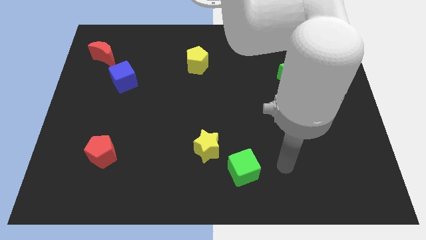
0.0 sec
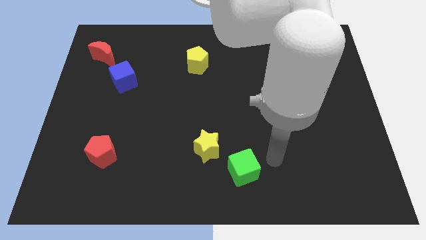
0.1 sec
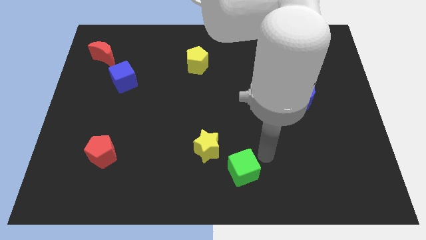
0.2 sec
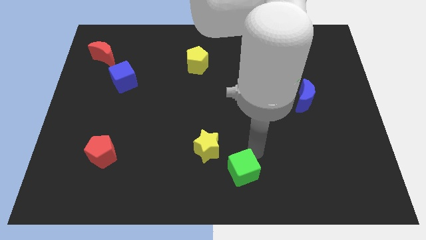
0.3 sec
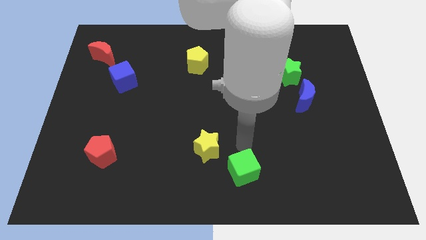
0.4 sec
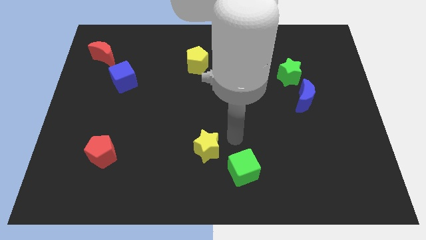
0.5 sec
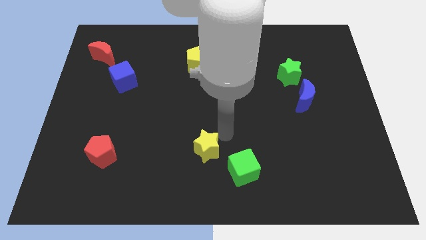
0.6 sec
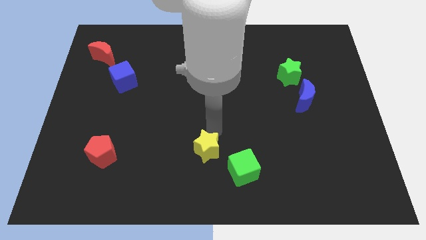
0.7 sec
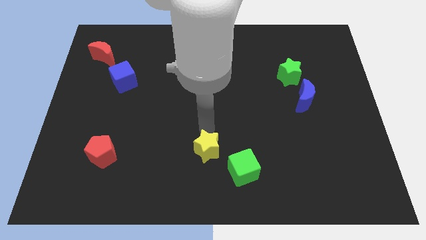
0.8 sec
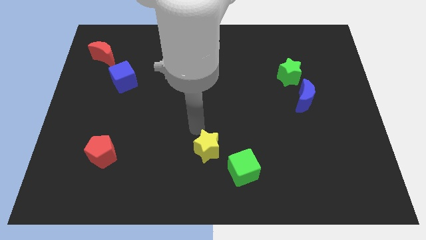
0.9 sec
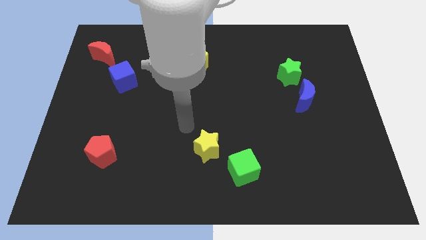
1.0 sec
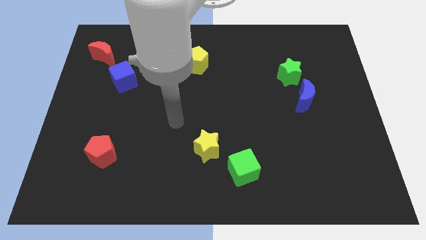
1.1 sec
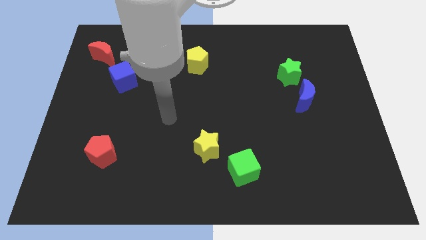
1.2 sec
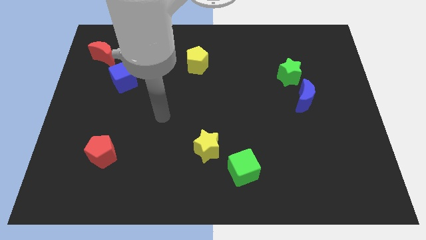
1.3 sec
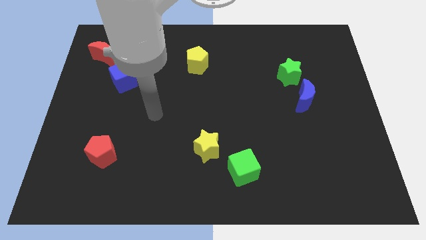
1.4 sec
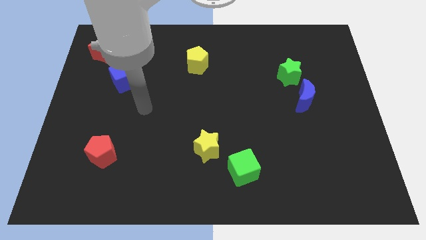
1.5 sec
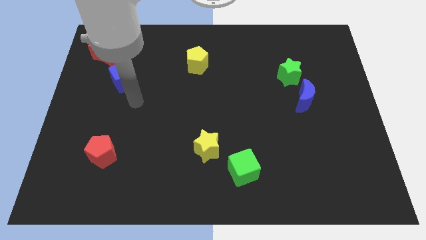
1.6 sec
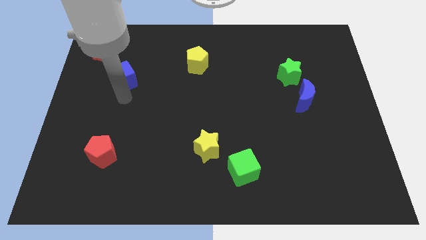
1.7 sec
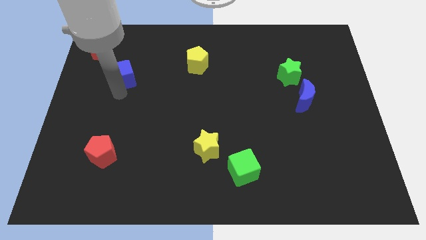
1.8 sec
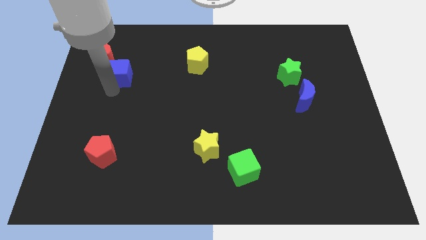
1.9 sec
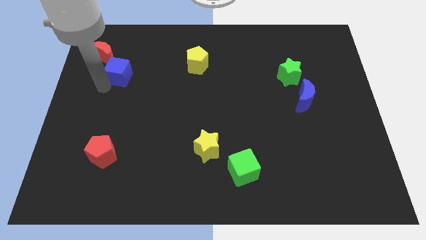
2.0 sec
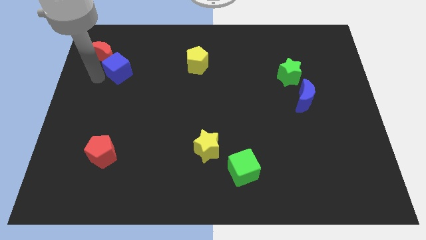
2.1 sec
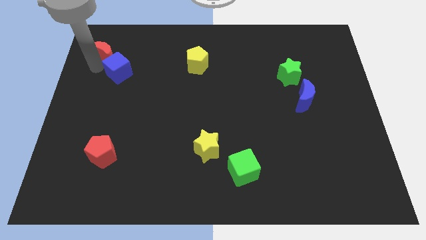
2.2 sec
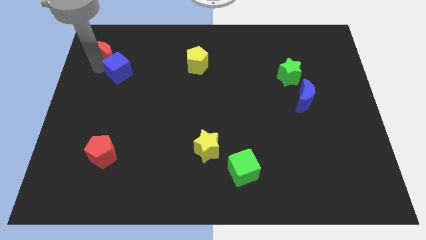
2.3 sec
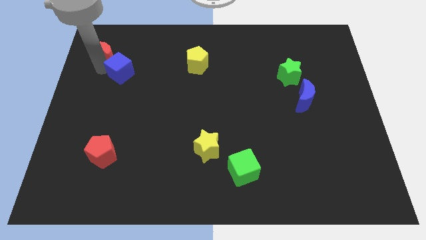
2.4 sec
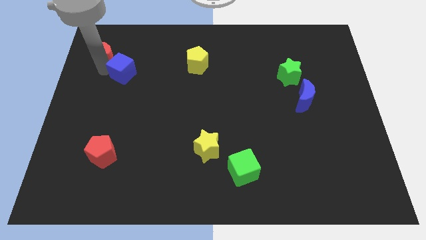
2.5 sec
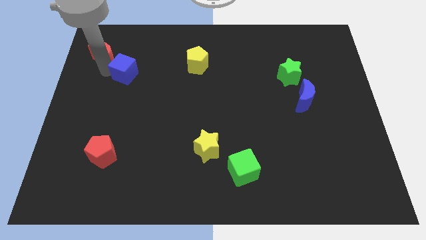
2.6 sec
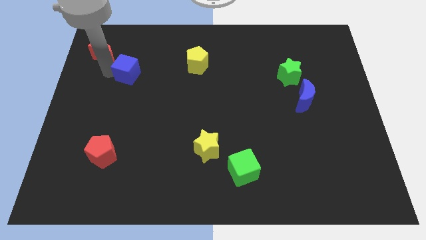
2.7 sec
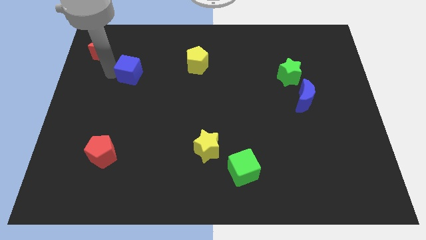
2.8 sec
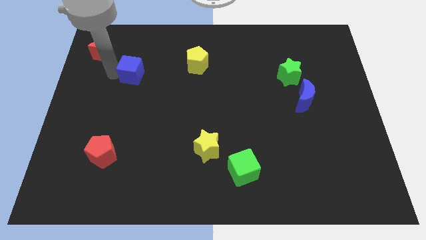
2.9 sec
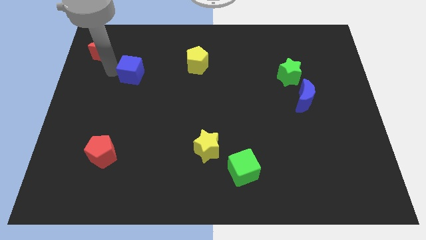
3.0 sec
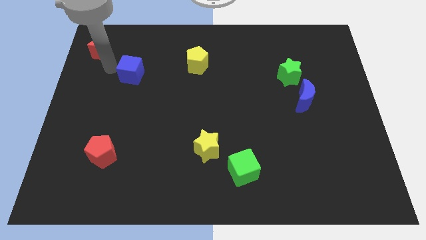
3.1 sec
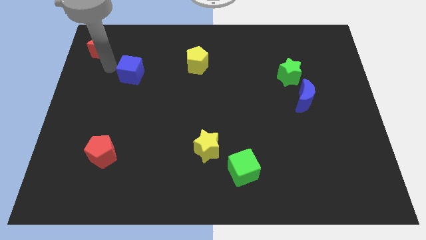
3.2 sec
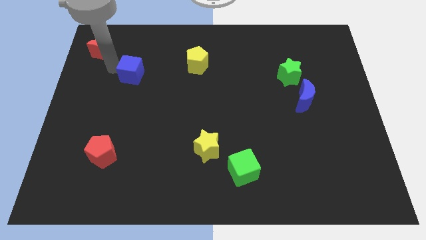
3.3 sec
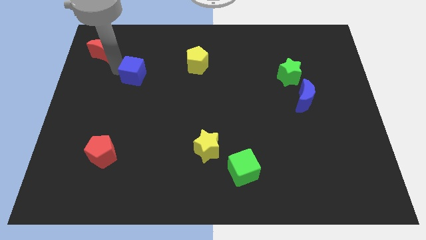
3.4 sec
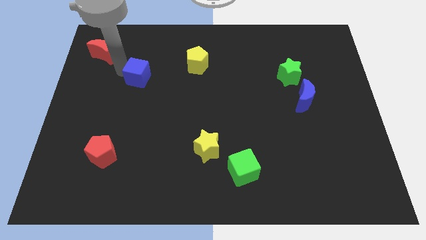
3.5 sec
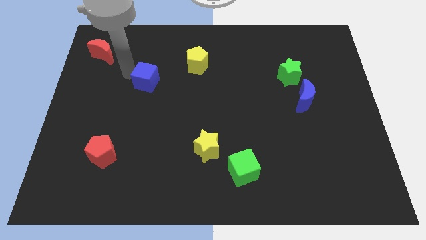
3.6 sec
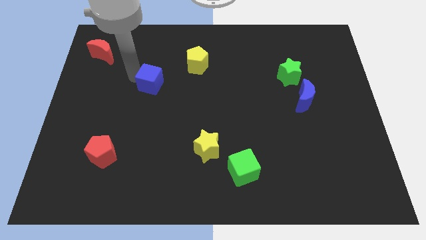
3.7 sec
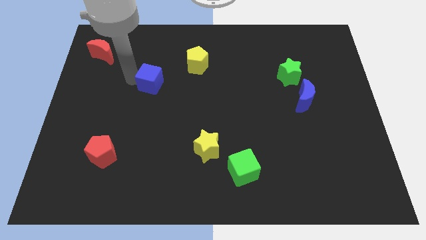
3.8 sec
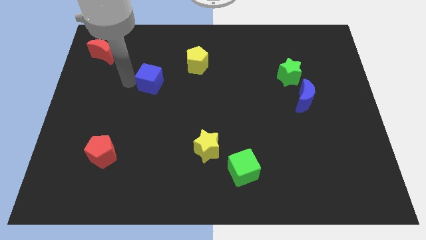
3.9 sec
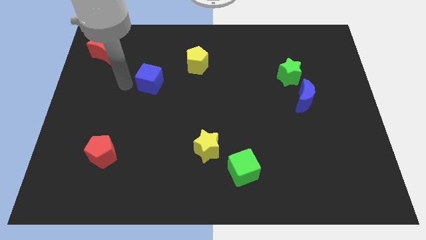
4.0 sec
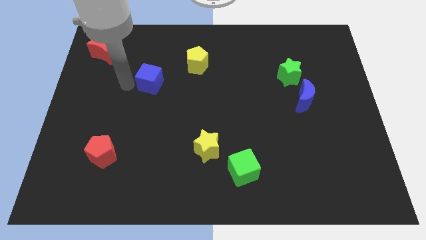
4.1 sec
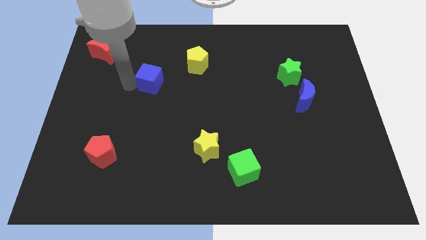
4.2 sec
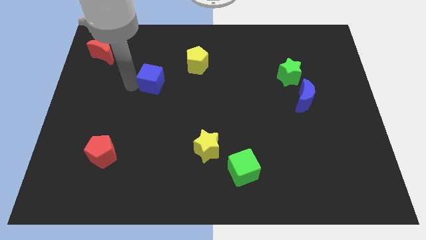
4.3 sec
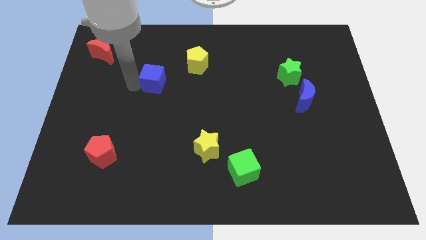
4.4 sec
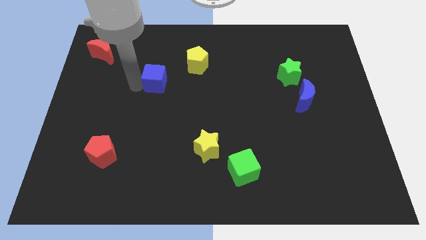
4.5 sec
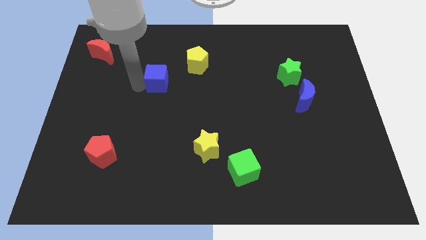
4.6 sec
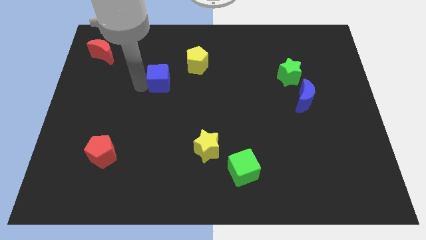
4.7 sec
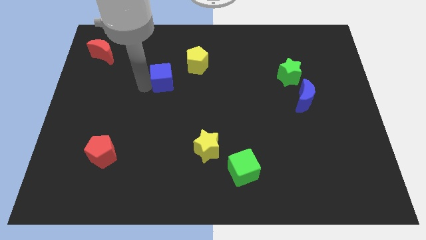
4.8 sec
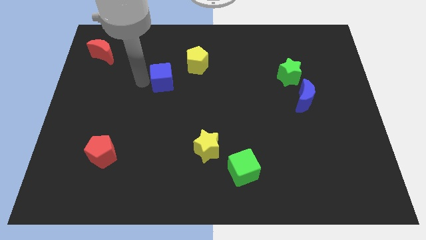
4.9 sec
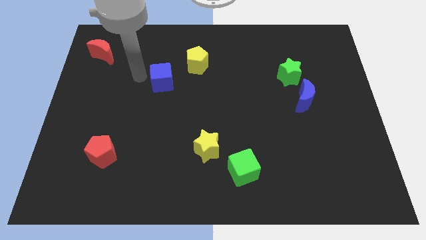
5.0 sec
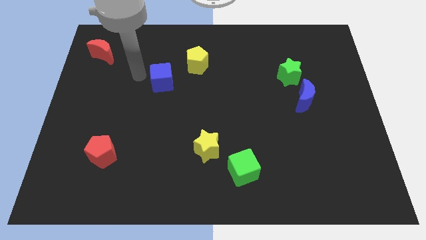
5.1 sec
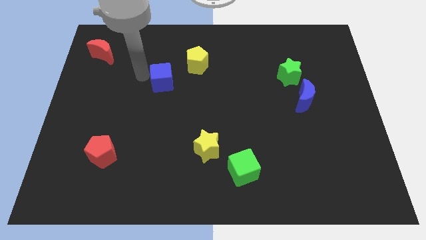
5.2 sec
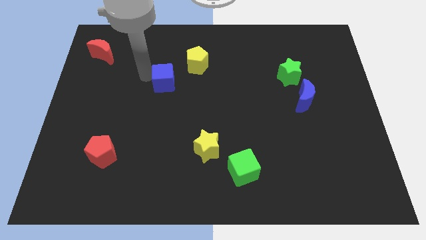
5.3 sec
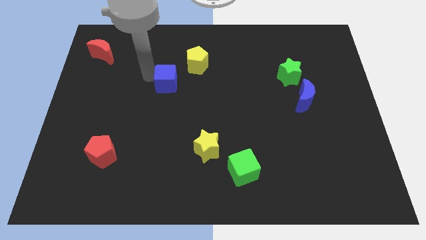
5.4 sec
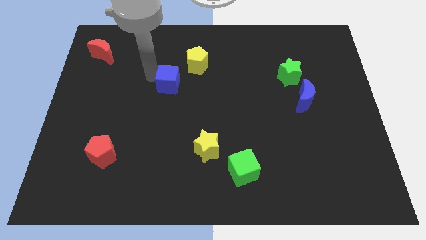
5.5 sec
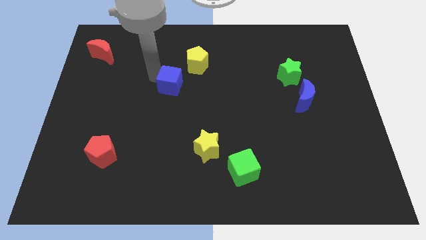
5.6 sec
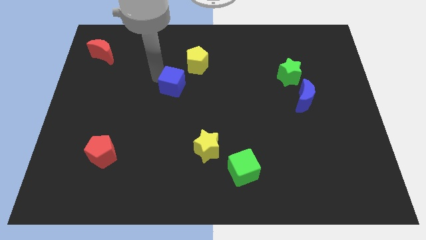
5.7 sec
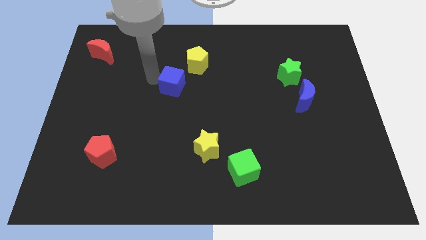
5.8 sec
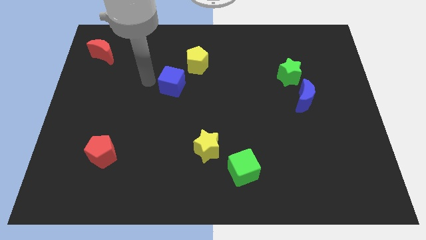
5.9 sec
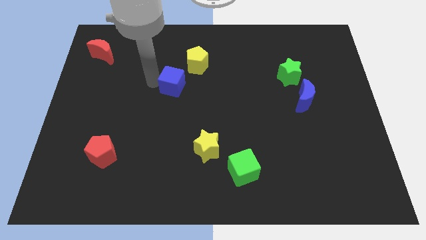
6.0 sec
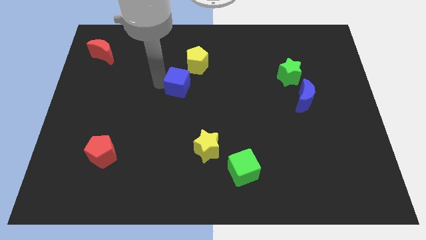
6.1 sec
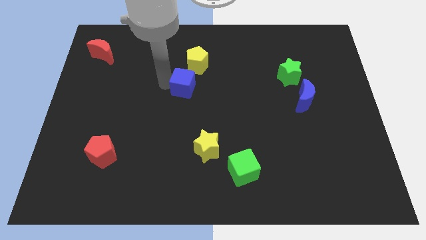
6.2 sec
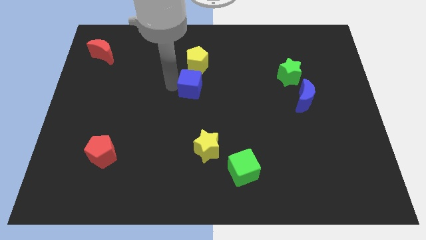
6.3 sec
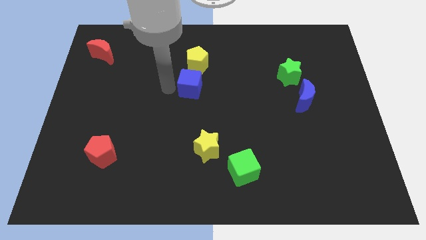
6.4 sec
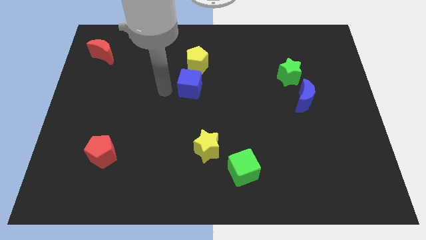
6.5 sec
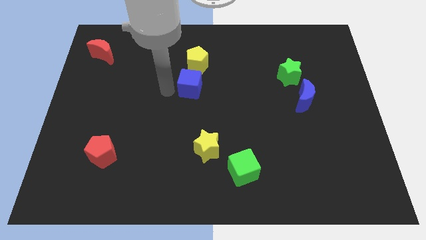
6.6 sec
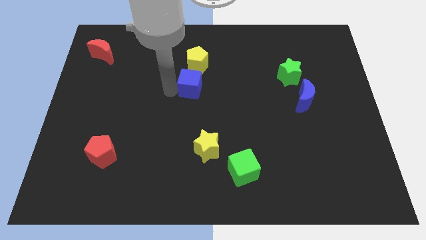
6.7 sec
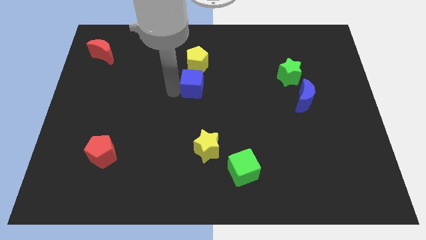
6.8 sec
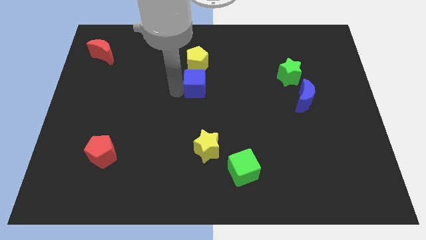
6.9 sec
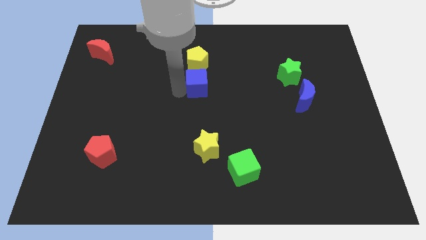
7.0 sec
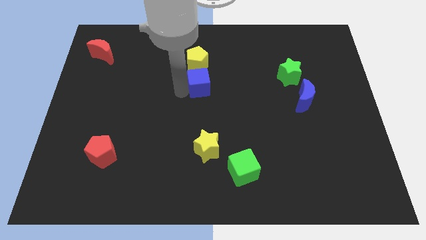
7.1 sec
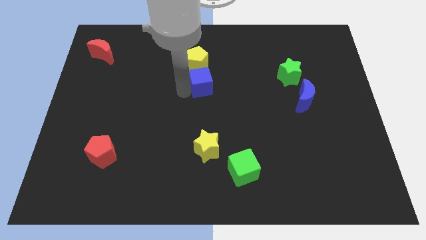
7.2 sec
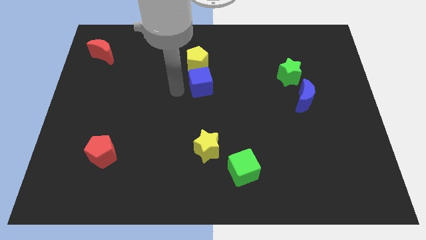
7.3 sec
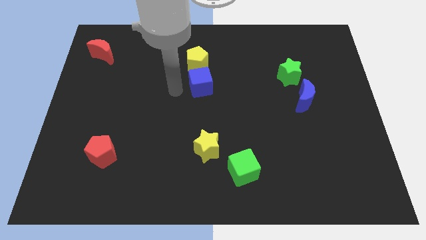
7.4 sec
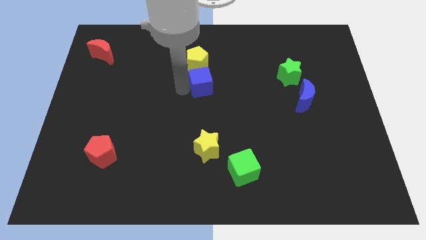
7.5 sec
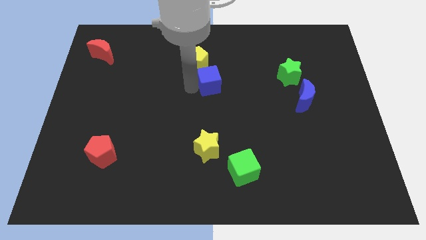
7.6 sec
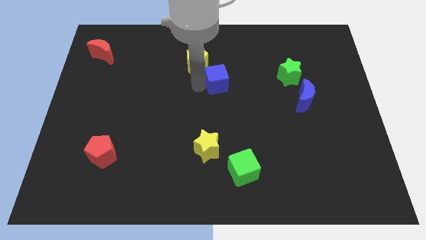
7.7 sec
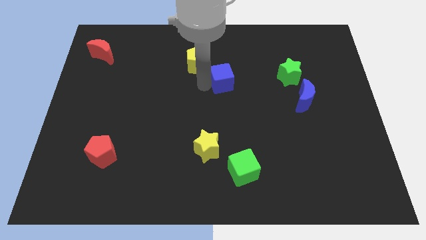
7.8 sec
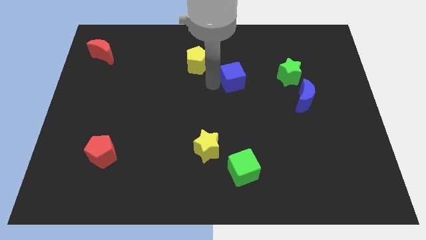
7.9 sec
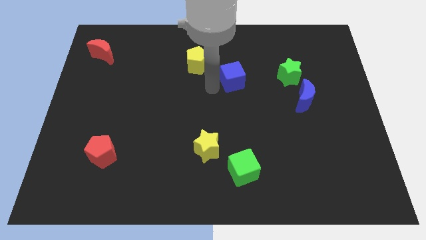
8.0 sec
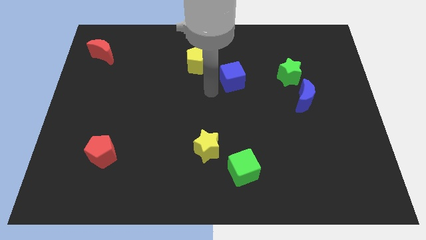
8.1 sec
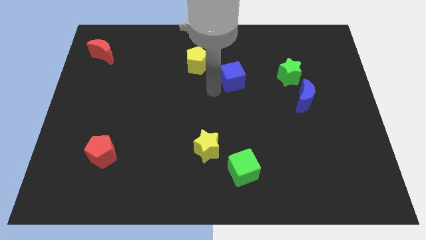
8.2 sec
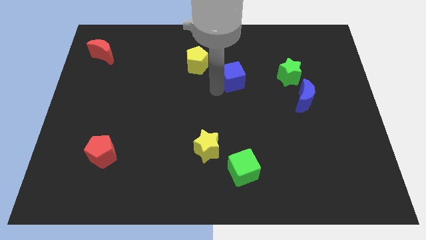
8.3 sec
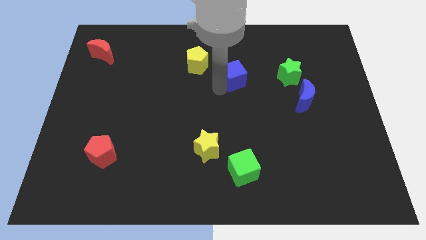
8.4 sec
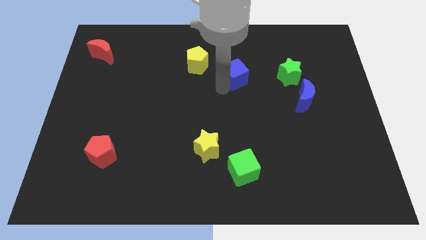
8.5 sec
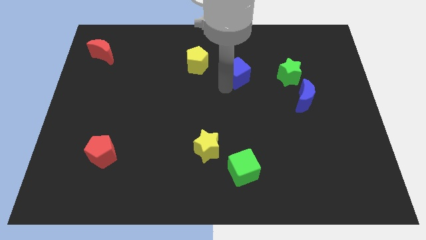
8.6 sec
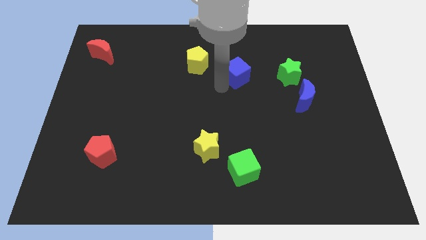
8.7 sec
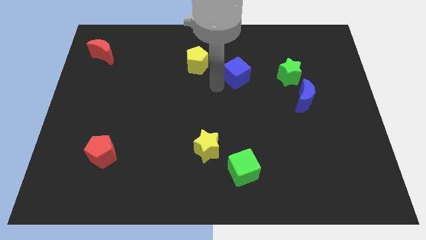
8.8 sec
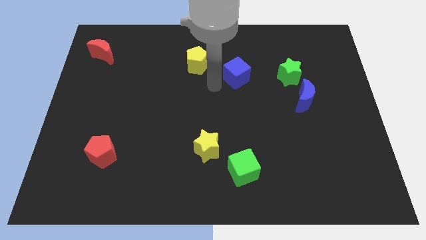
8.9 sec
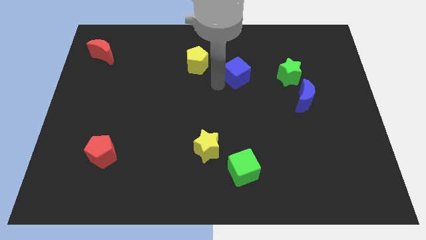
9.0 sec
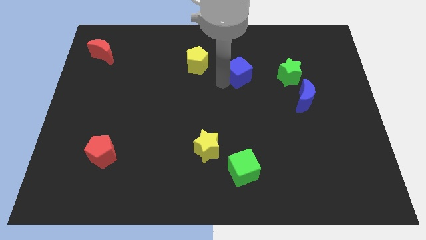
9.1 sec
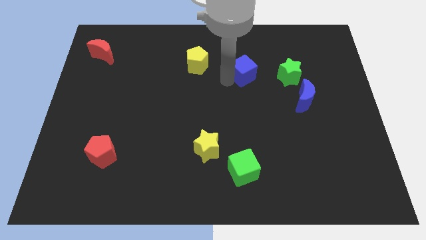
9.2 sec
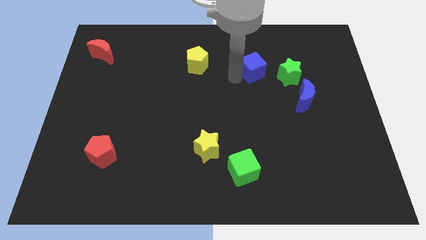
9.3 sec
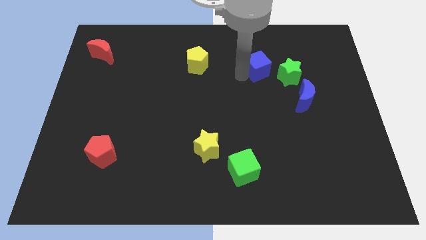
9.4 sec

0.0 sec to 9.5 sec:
push the blue cube diagonally up and to the left of the green star
